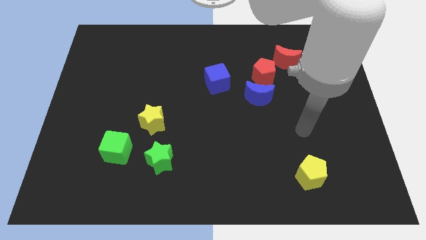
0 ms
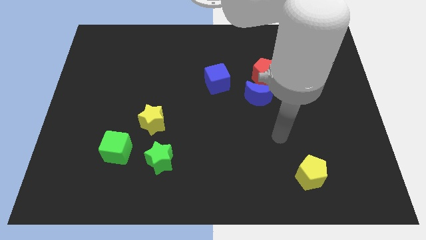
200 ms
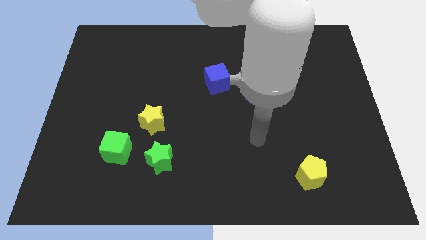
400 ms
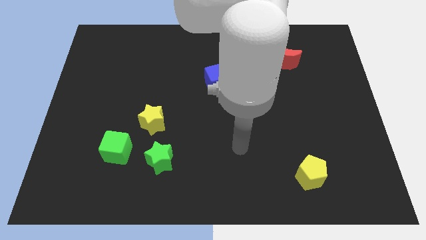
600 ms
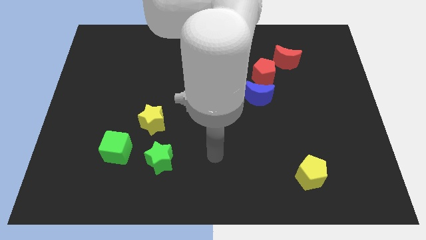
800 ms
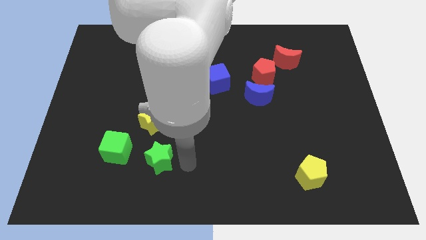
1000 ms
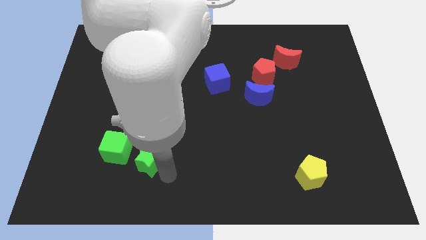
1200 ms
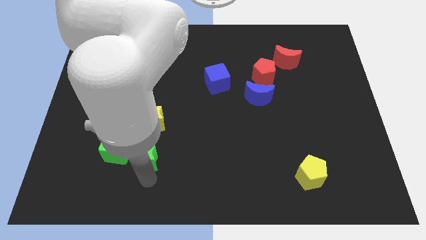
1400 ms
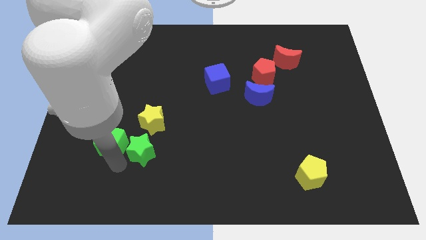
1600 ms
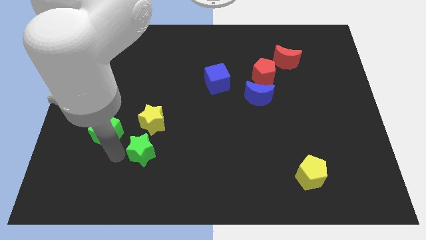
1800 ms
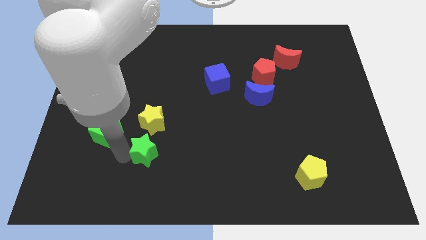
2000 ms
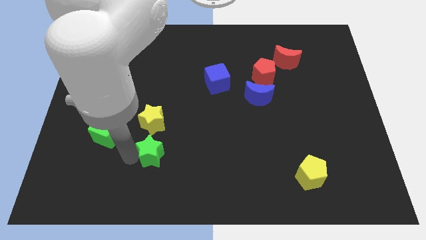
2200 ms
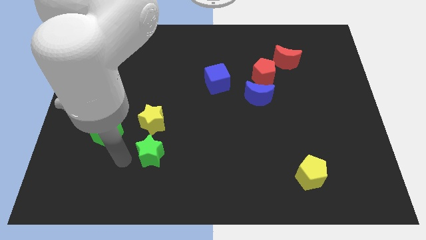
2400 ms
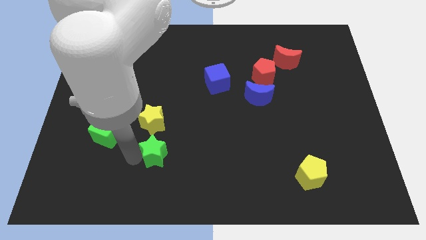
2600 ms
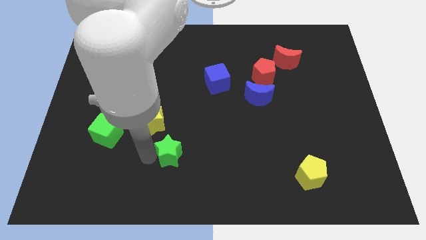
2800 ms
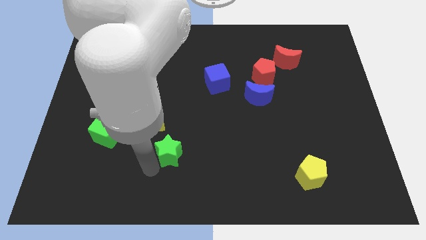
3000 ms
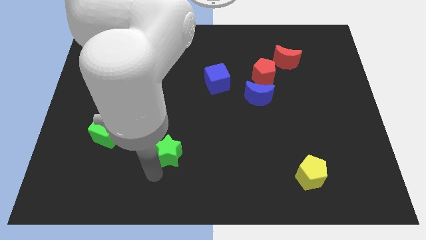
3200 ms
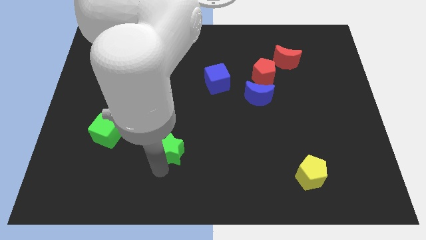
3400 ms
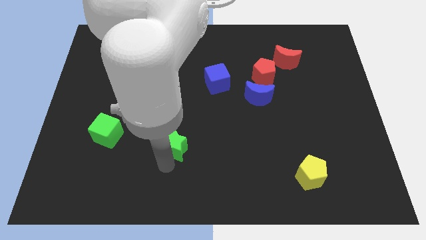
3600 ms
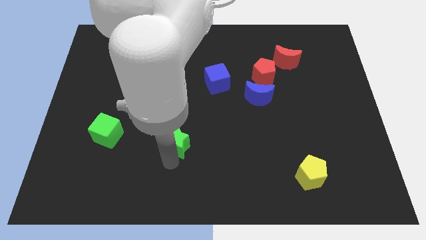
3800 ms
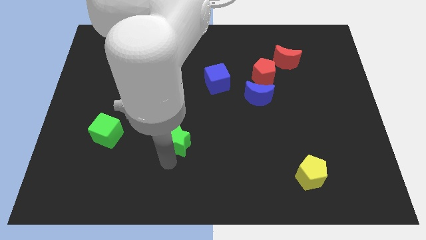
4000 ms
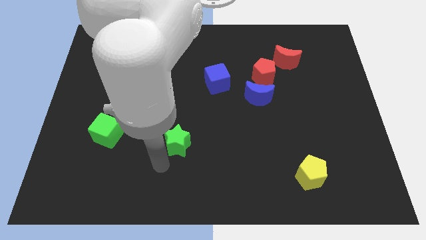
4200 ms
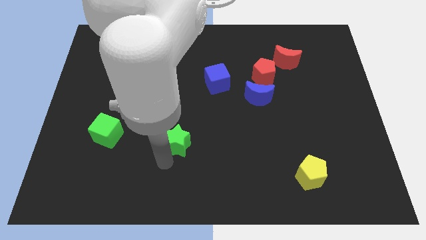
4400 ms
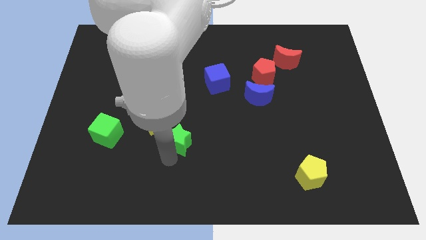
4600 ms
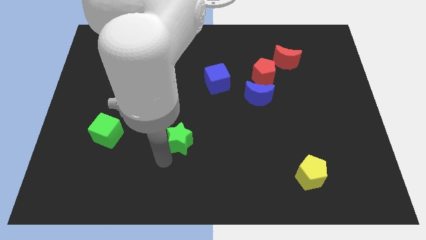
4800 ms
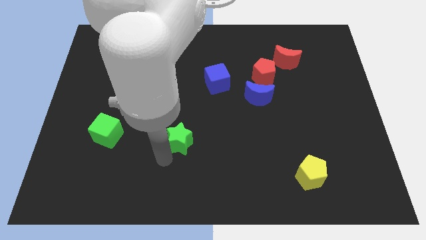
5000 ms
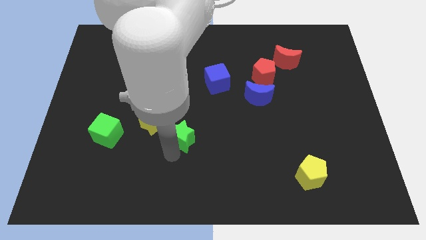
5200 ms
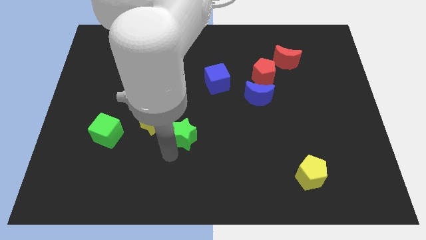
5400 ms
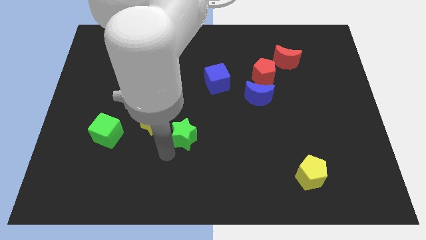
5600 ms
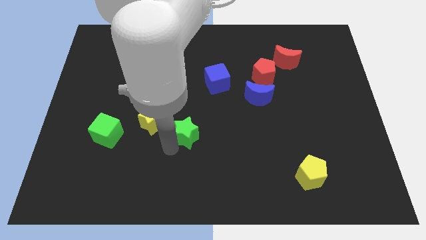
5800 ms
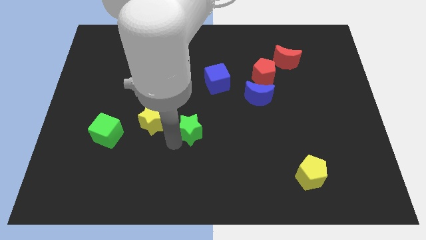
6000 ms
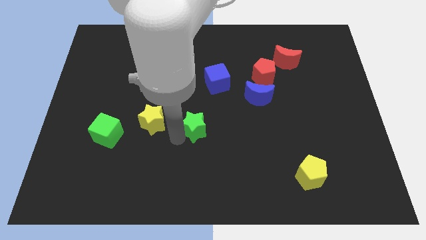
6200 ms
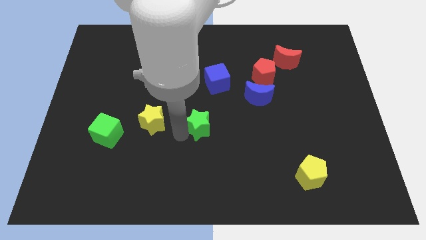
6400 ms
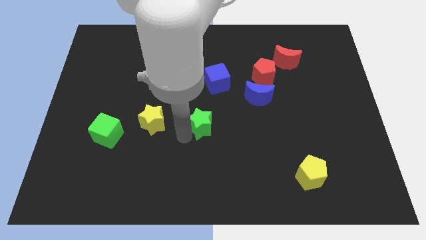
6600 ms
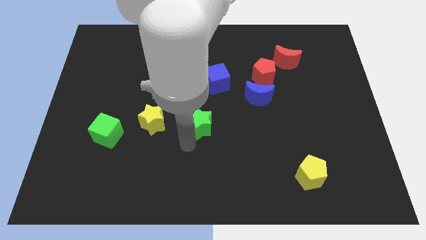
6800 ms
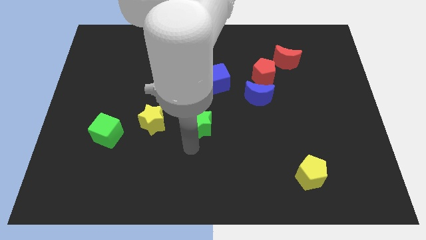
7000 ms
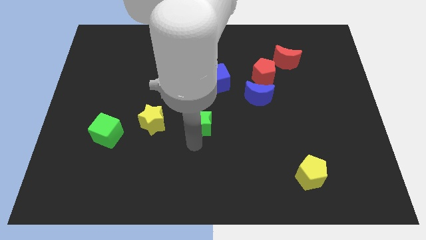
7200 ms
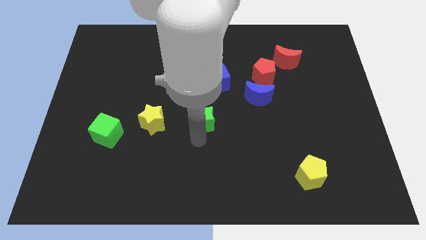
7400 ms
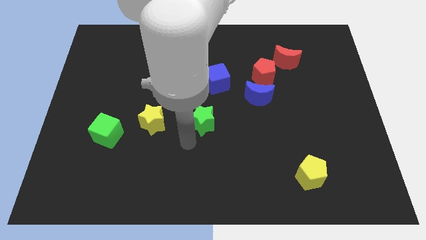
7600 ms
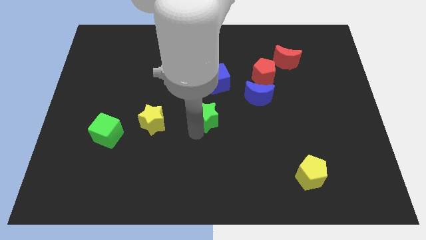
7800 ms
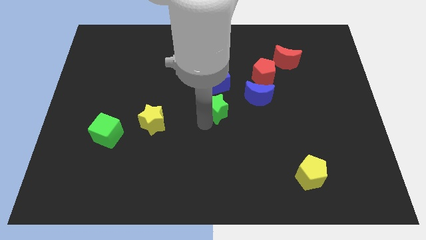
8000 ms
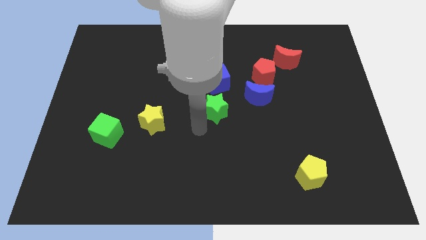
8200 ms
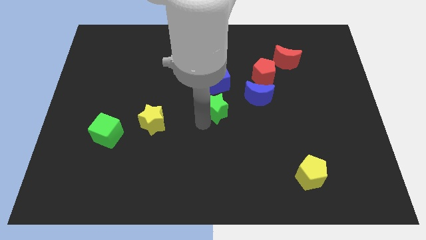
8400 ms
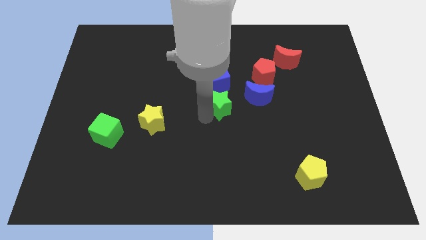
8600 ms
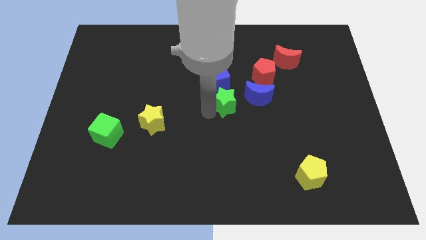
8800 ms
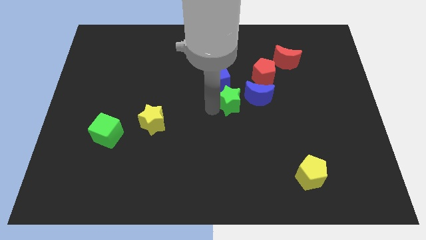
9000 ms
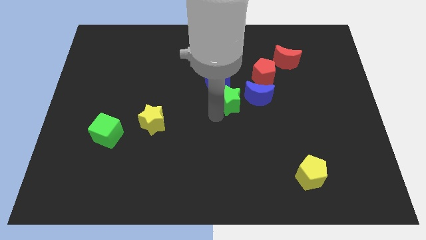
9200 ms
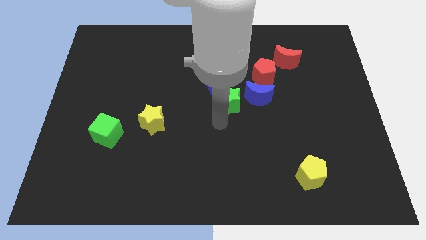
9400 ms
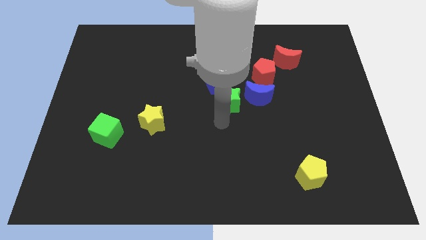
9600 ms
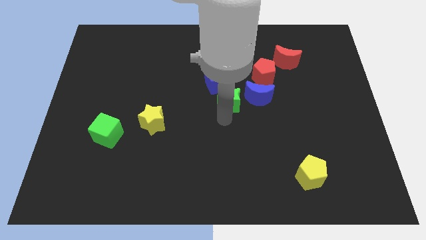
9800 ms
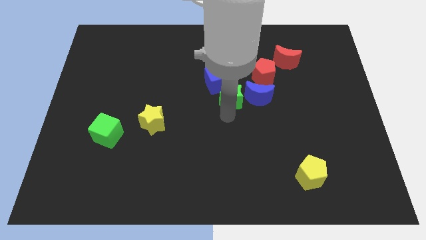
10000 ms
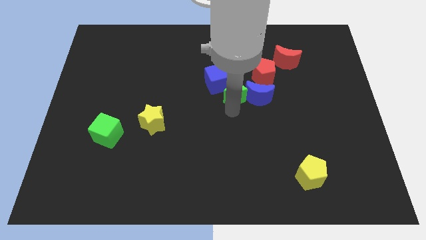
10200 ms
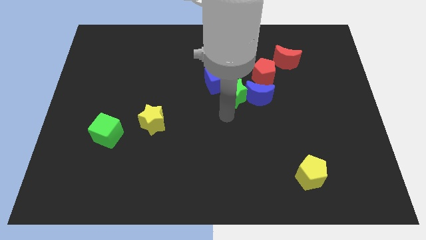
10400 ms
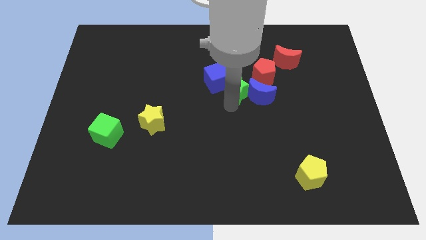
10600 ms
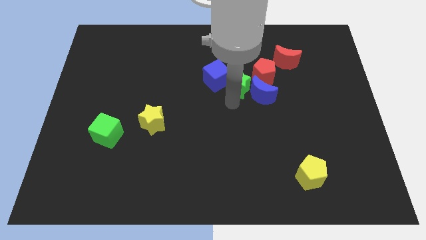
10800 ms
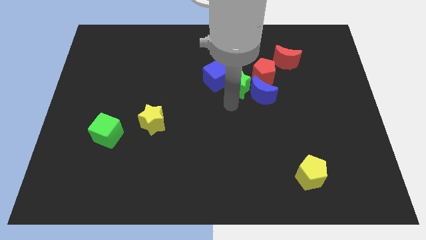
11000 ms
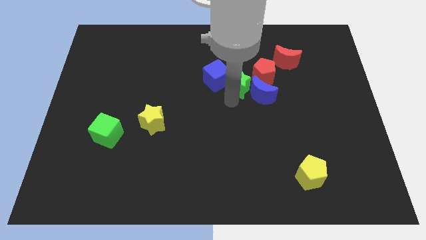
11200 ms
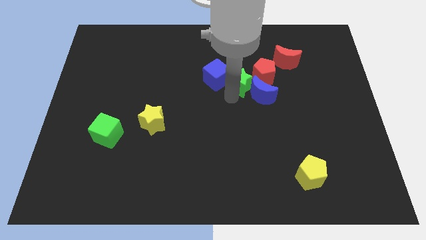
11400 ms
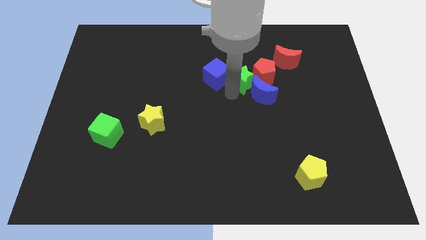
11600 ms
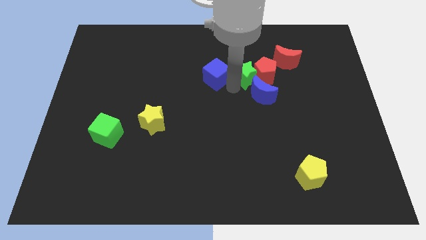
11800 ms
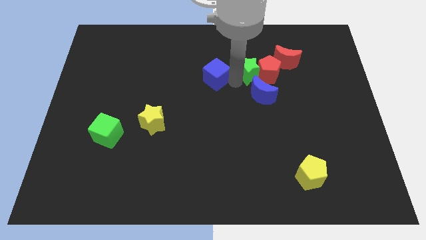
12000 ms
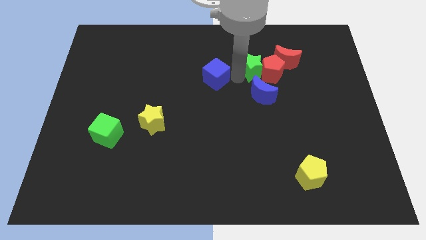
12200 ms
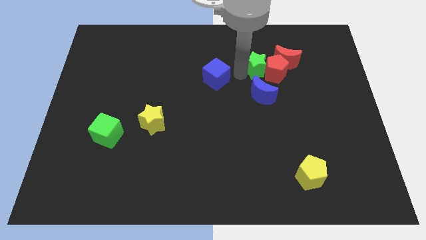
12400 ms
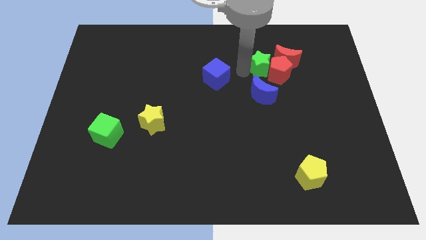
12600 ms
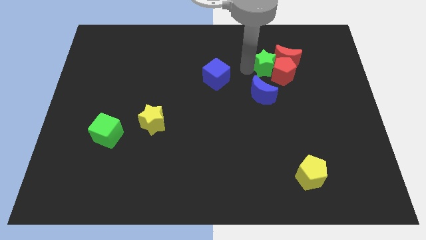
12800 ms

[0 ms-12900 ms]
push the green star next to the red moon
